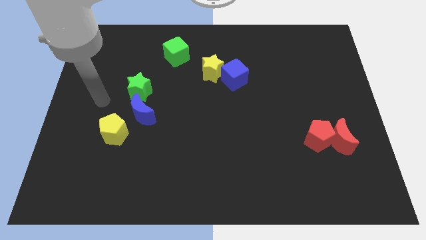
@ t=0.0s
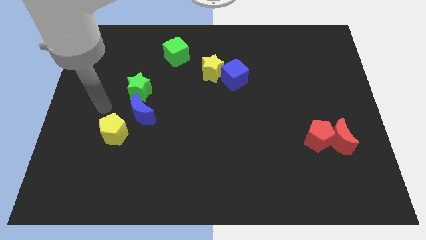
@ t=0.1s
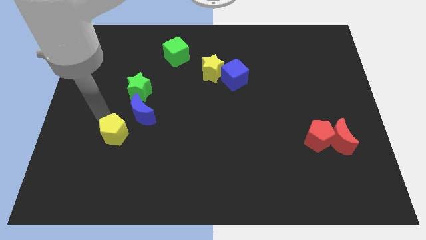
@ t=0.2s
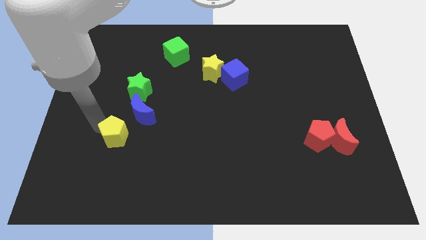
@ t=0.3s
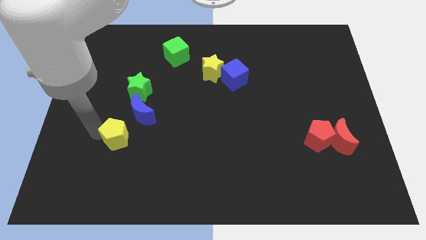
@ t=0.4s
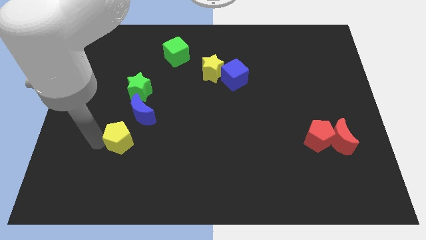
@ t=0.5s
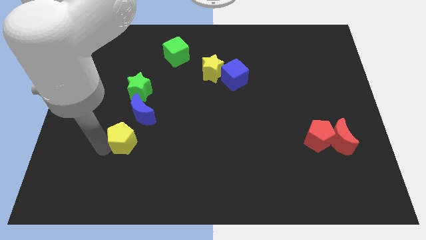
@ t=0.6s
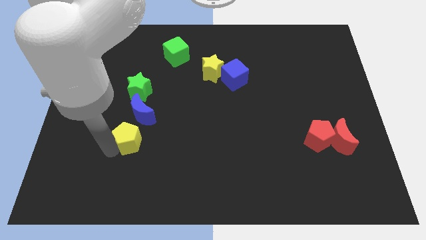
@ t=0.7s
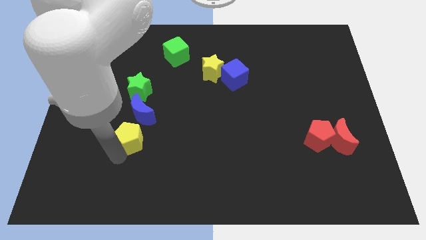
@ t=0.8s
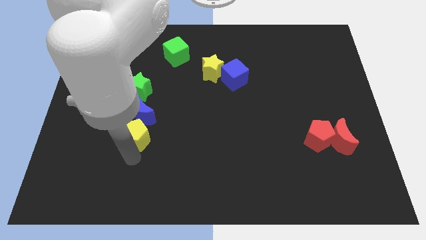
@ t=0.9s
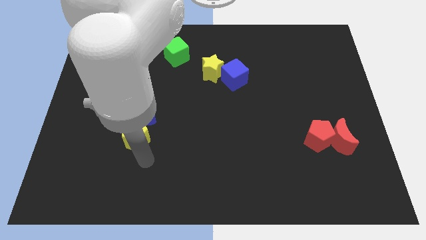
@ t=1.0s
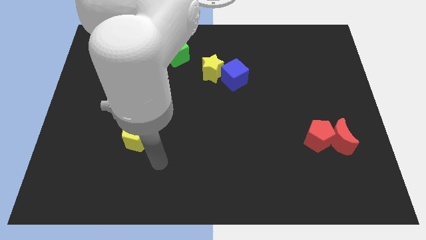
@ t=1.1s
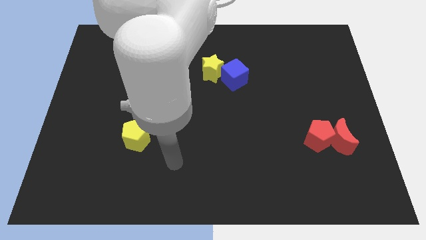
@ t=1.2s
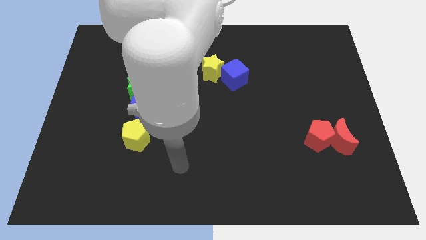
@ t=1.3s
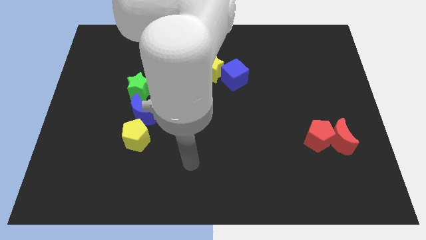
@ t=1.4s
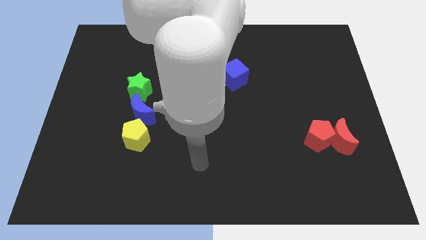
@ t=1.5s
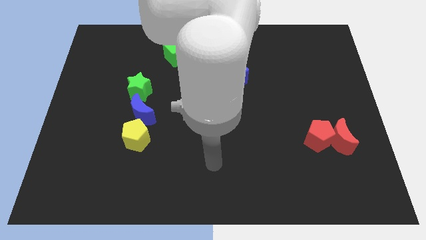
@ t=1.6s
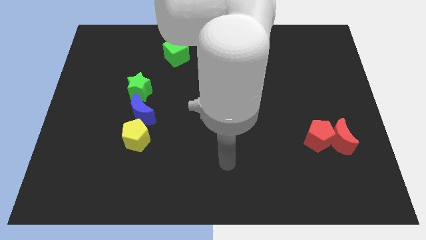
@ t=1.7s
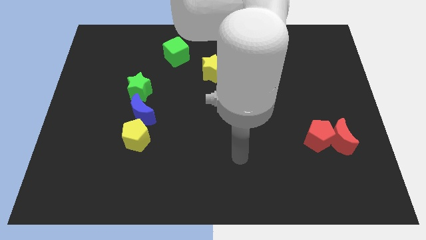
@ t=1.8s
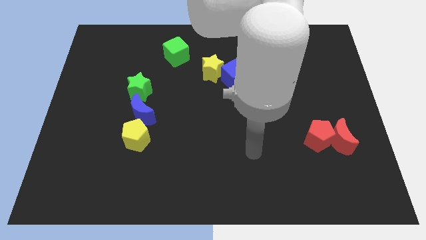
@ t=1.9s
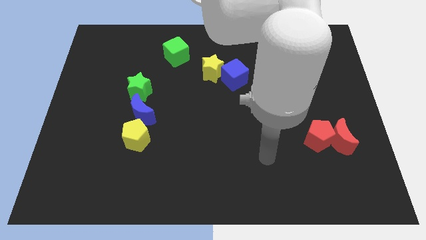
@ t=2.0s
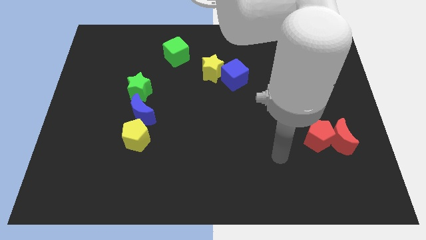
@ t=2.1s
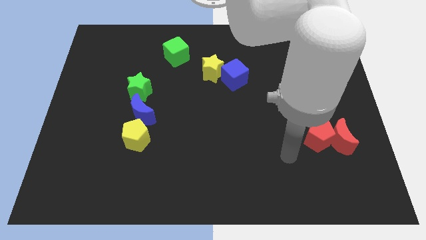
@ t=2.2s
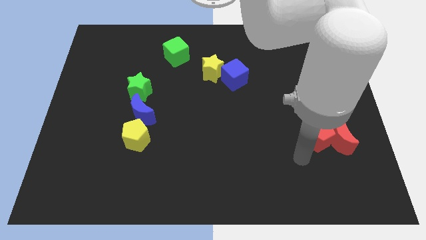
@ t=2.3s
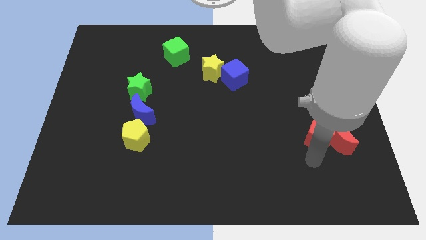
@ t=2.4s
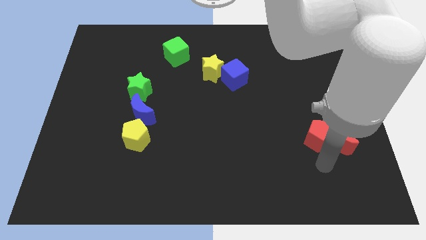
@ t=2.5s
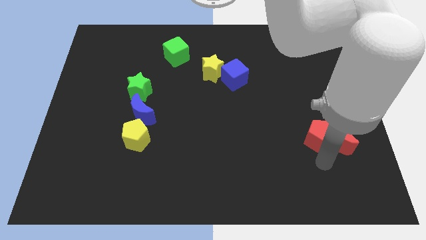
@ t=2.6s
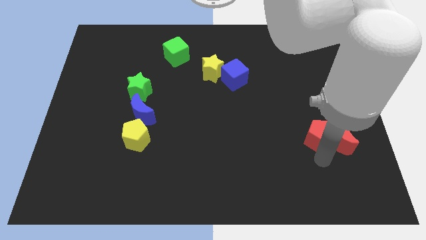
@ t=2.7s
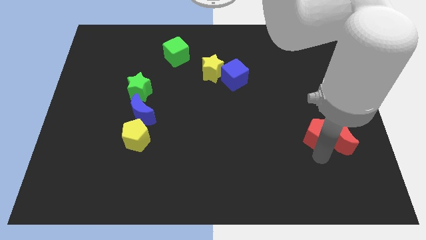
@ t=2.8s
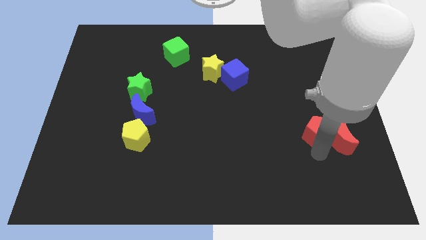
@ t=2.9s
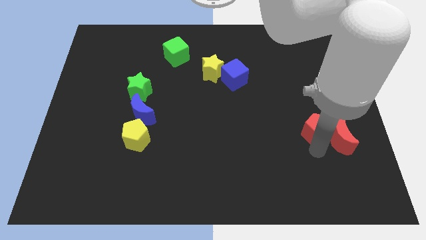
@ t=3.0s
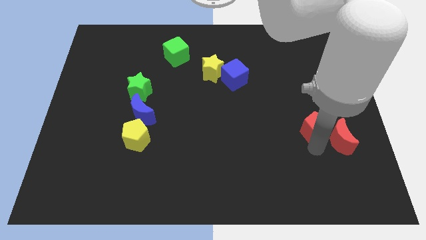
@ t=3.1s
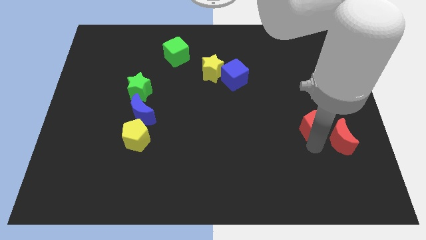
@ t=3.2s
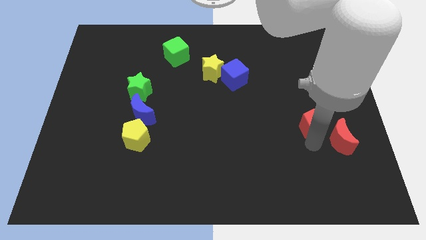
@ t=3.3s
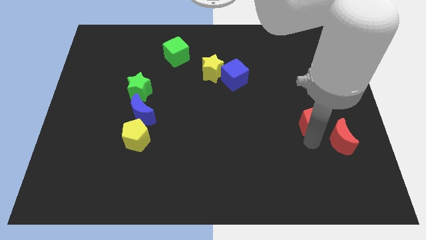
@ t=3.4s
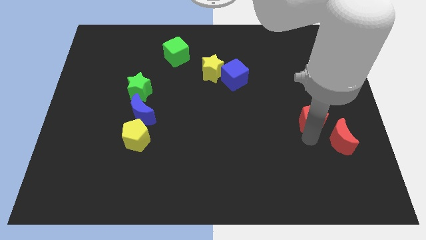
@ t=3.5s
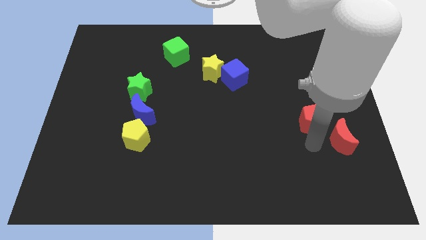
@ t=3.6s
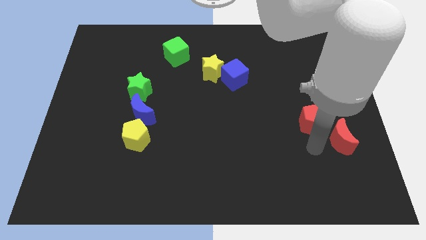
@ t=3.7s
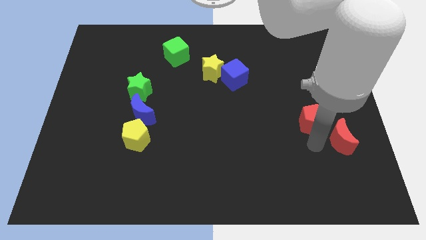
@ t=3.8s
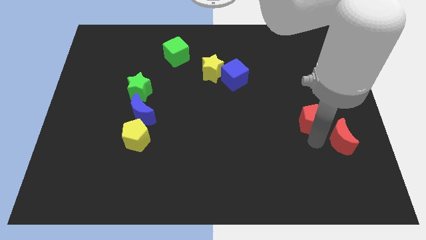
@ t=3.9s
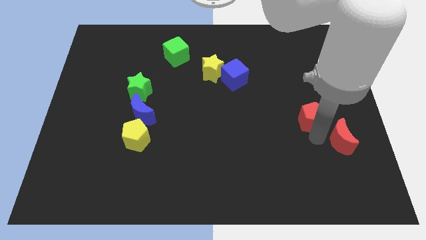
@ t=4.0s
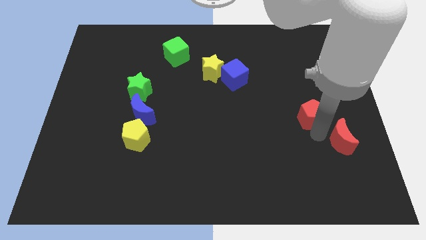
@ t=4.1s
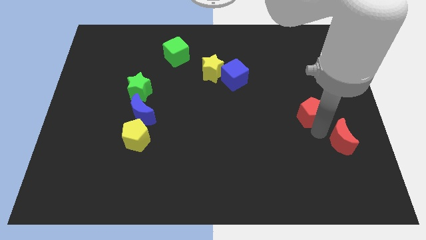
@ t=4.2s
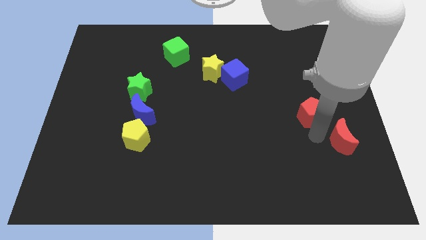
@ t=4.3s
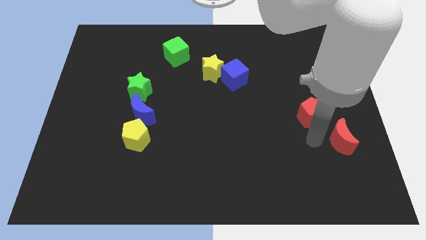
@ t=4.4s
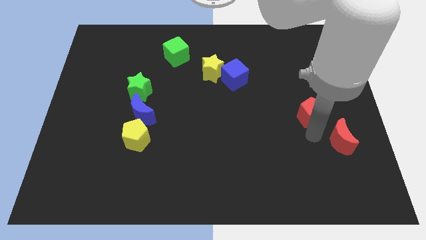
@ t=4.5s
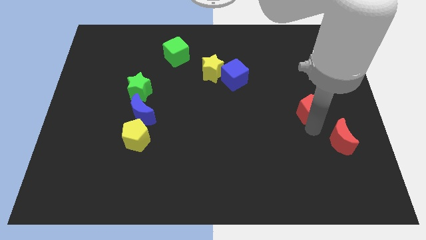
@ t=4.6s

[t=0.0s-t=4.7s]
push the red pentagon a little up

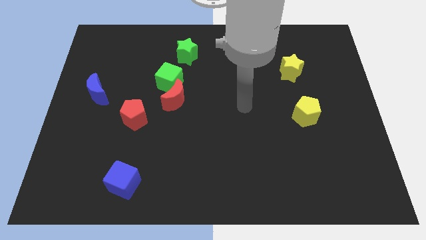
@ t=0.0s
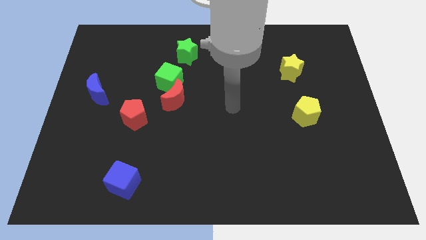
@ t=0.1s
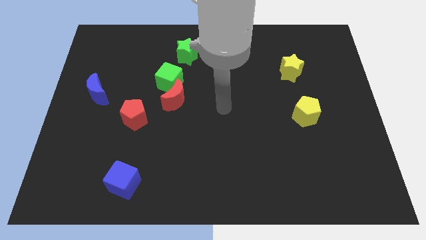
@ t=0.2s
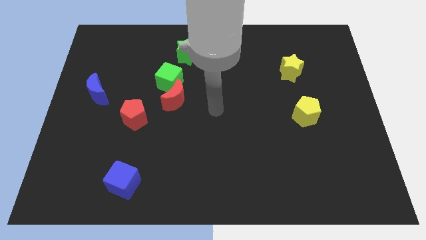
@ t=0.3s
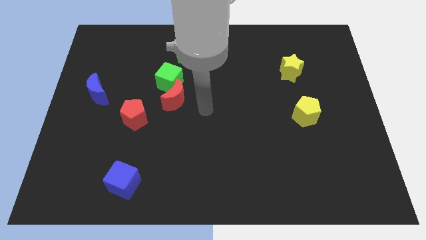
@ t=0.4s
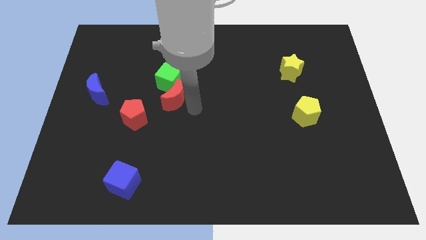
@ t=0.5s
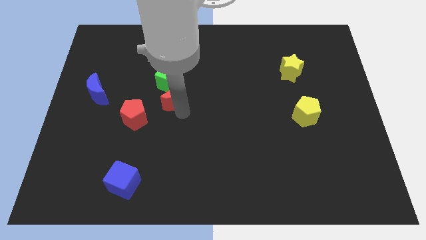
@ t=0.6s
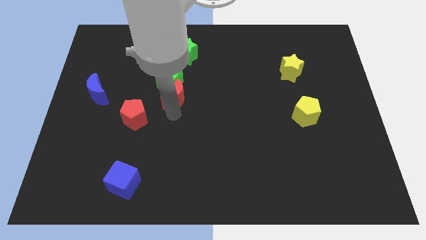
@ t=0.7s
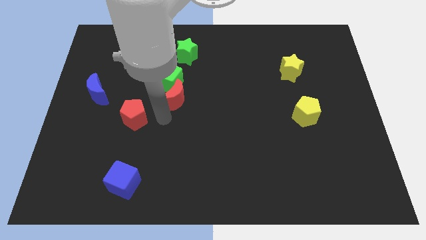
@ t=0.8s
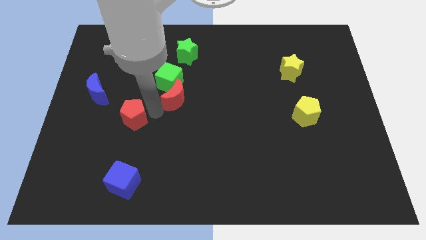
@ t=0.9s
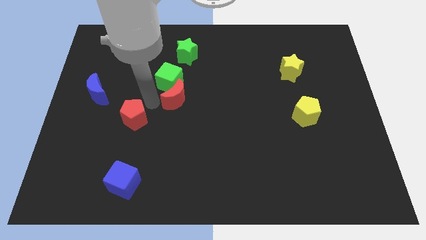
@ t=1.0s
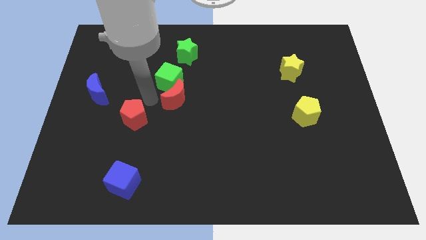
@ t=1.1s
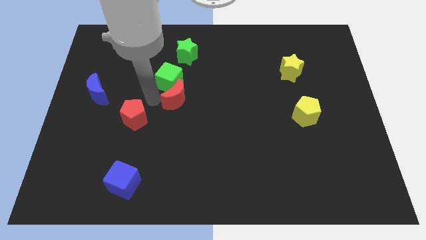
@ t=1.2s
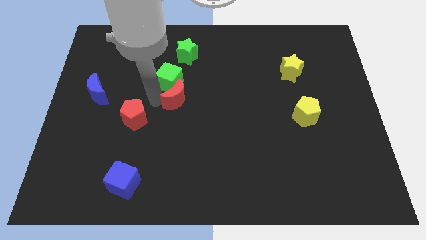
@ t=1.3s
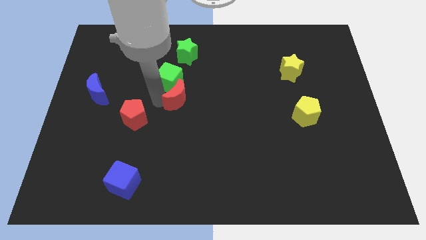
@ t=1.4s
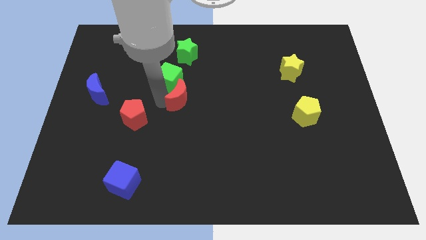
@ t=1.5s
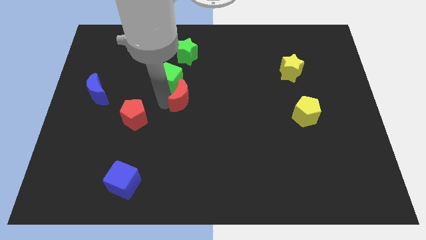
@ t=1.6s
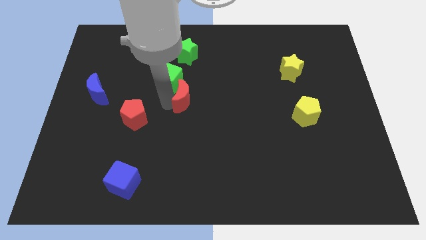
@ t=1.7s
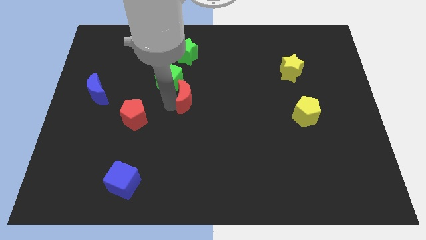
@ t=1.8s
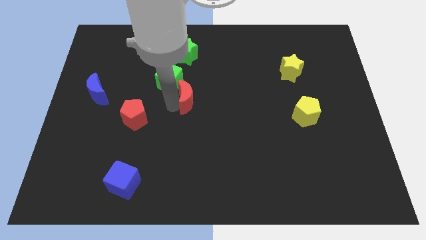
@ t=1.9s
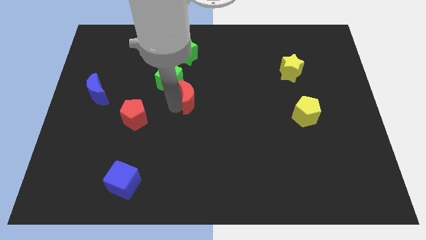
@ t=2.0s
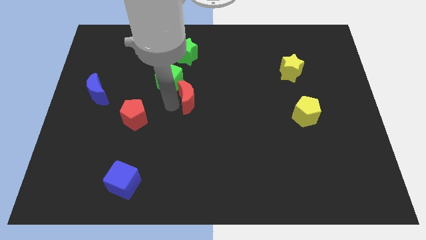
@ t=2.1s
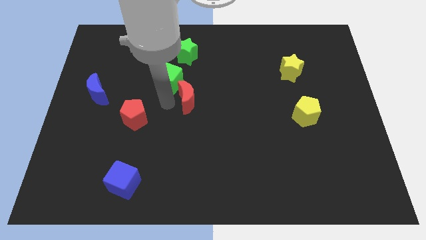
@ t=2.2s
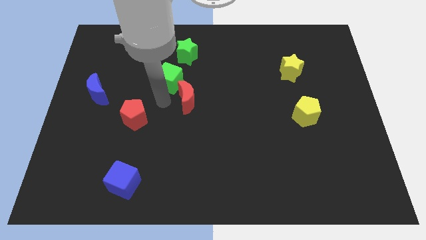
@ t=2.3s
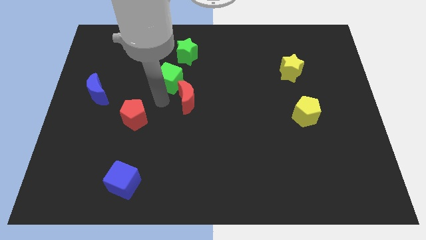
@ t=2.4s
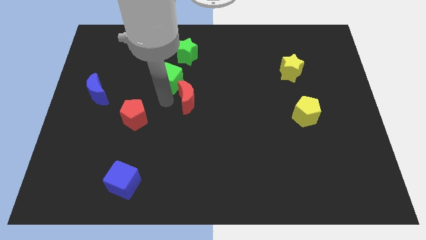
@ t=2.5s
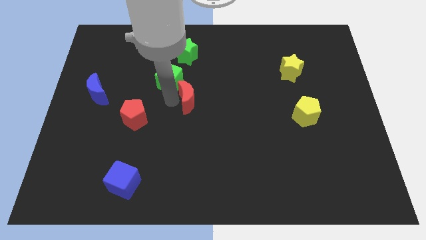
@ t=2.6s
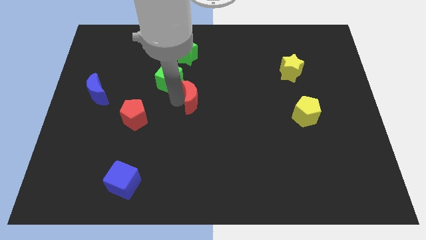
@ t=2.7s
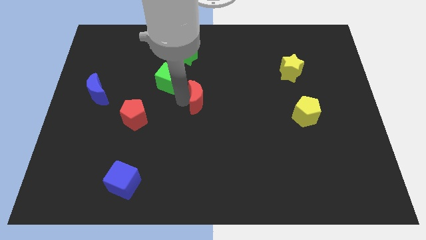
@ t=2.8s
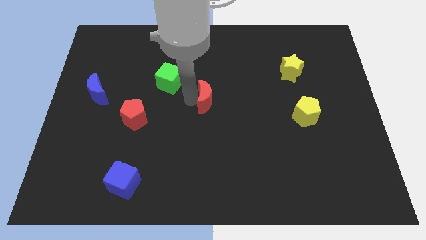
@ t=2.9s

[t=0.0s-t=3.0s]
move the red moon a little right
